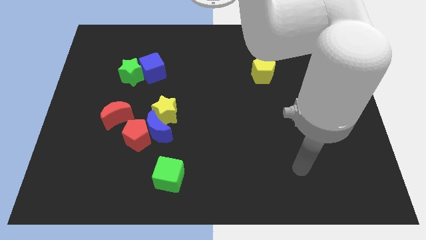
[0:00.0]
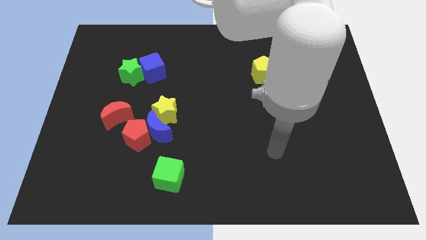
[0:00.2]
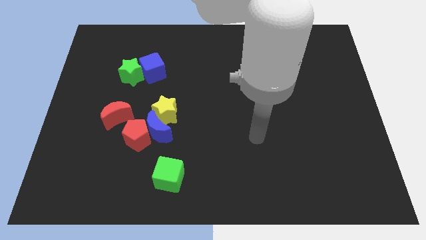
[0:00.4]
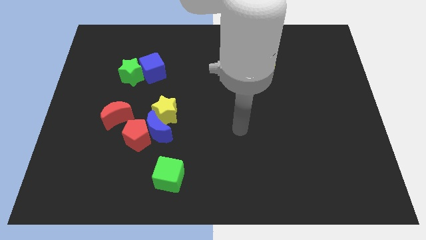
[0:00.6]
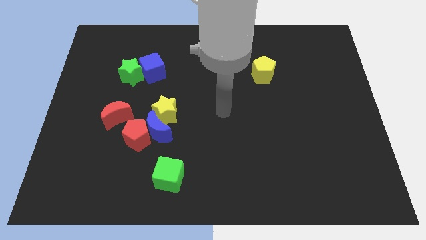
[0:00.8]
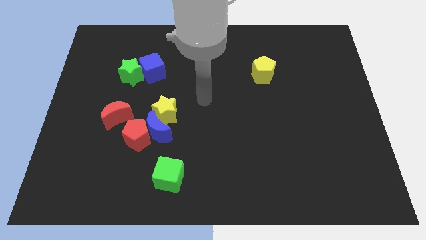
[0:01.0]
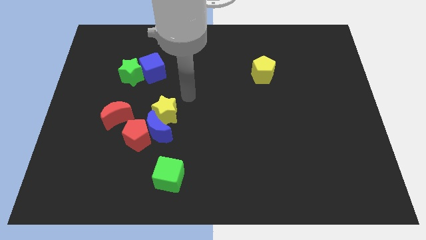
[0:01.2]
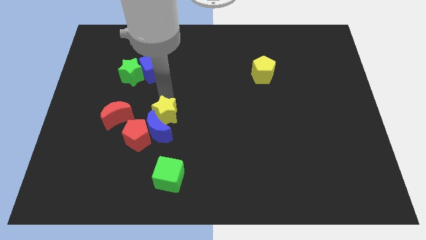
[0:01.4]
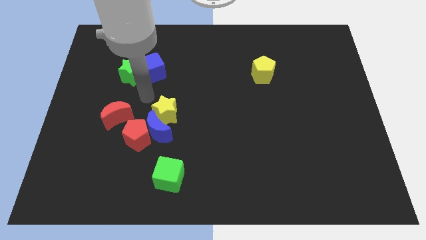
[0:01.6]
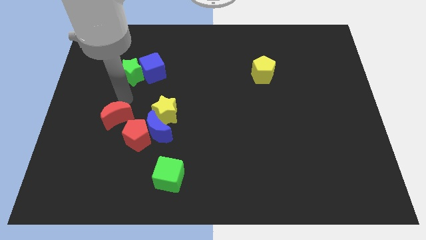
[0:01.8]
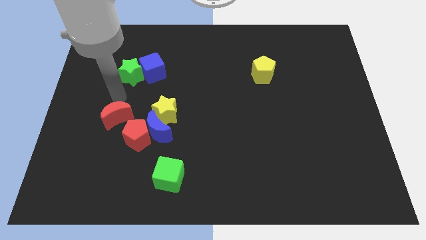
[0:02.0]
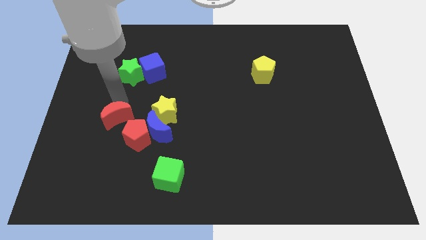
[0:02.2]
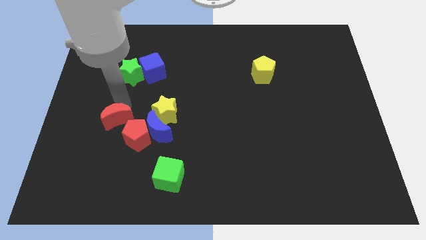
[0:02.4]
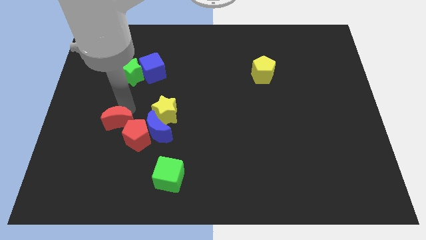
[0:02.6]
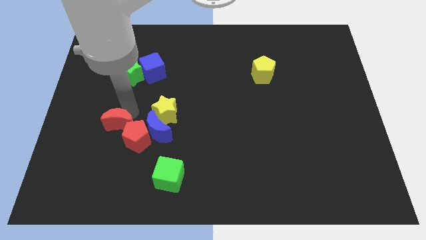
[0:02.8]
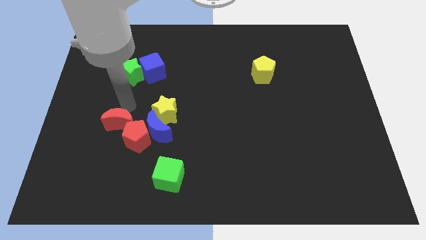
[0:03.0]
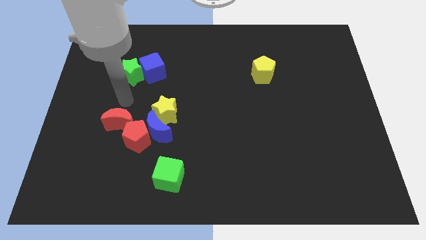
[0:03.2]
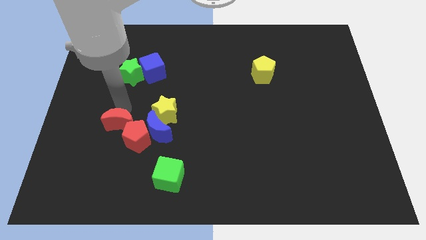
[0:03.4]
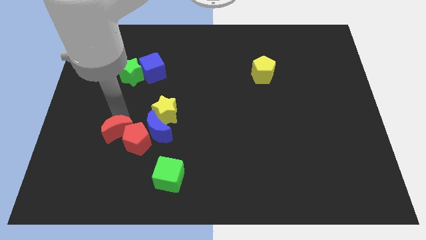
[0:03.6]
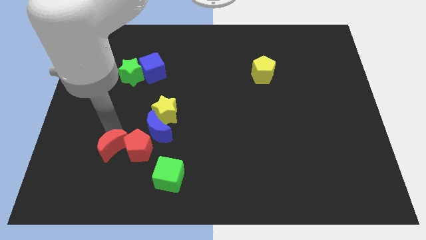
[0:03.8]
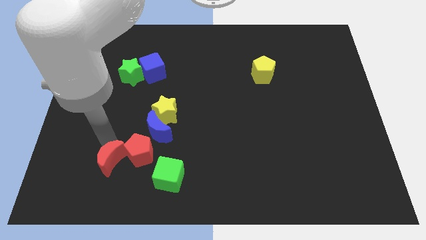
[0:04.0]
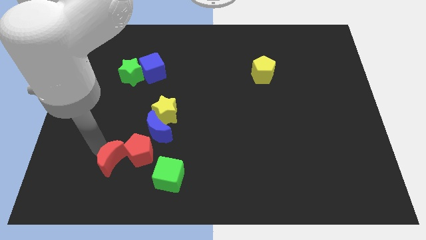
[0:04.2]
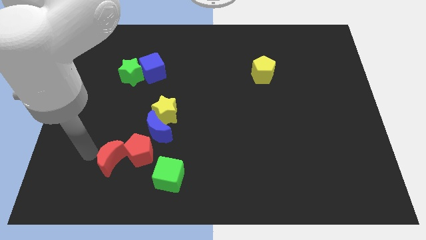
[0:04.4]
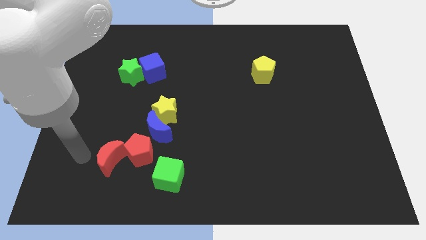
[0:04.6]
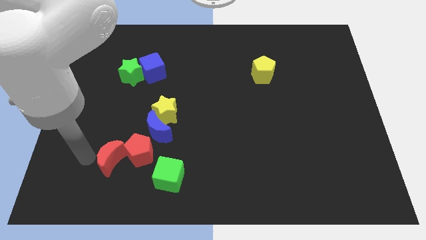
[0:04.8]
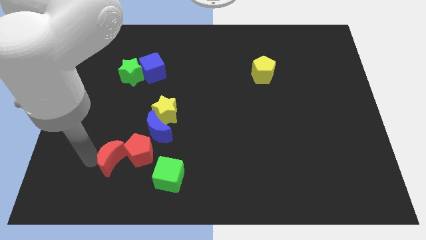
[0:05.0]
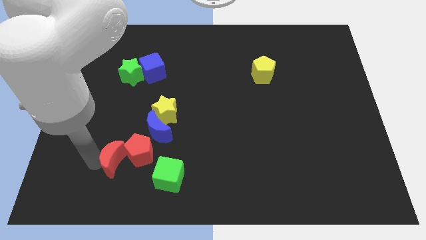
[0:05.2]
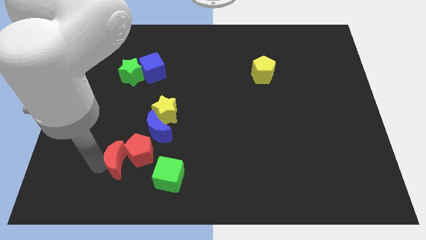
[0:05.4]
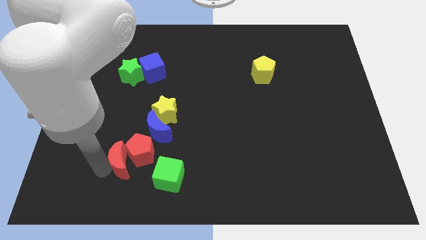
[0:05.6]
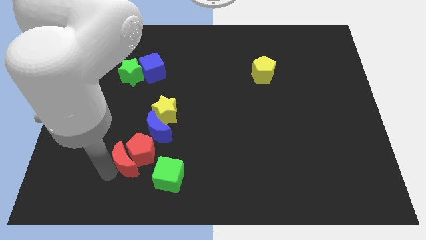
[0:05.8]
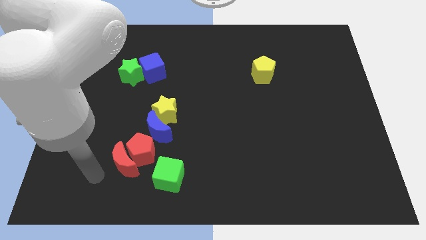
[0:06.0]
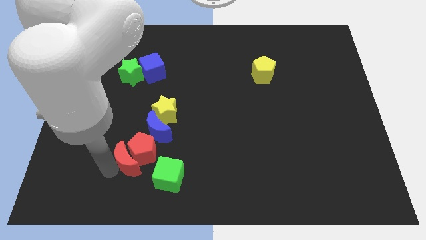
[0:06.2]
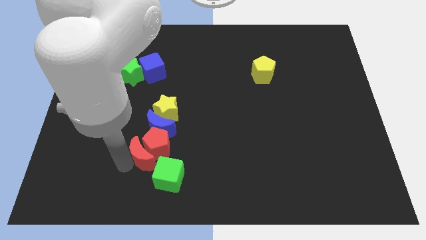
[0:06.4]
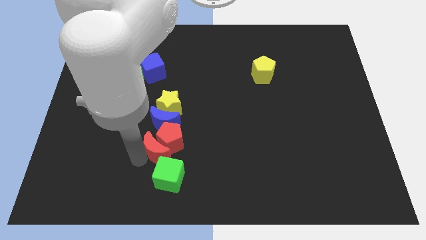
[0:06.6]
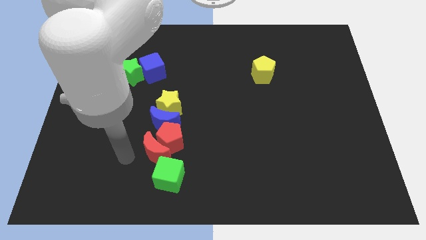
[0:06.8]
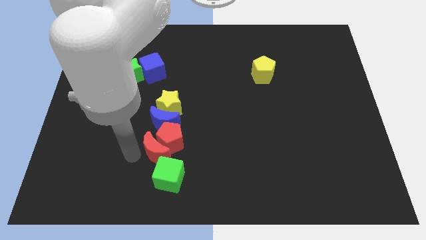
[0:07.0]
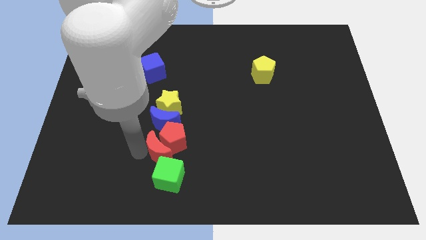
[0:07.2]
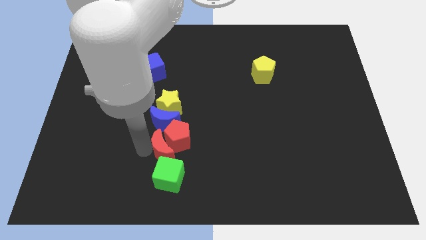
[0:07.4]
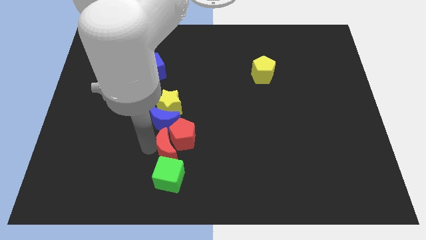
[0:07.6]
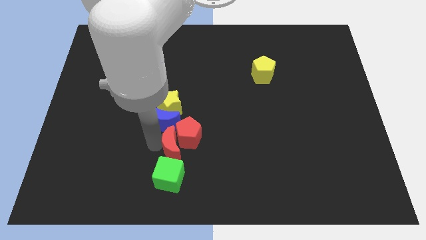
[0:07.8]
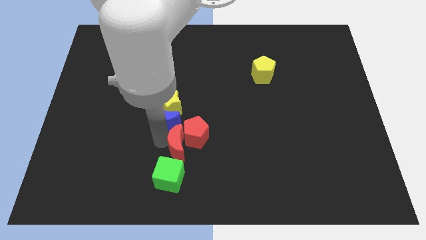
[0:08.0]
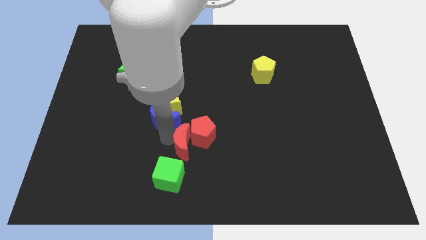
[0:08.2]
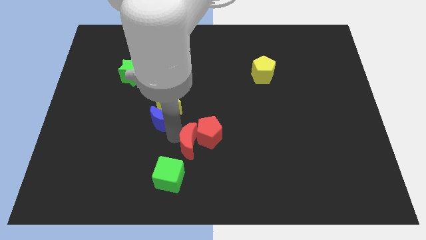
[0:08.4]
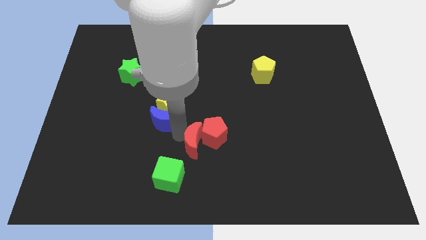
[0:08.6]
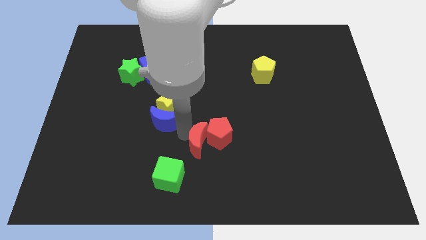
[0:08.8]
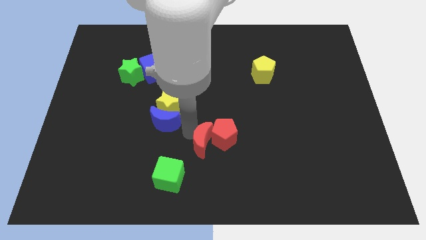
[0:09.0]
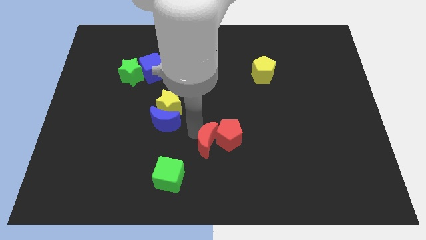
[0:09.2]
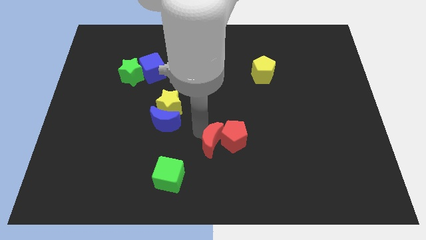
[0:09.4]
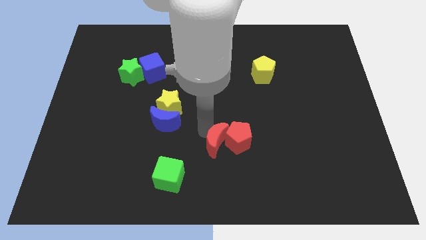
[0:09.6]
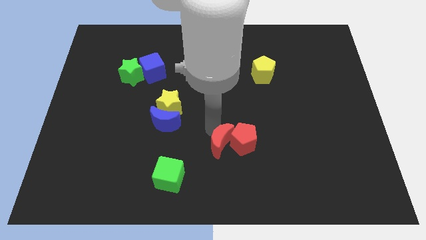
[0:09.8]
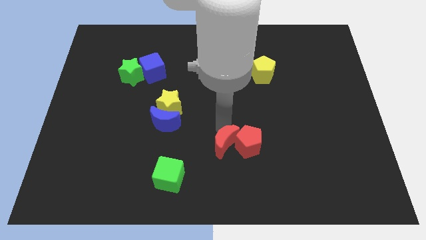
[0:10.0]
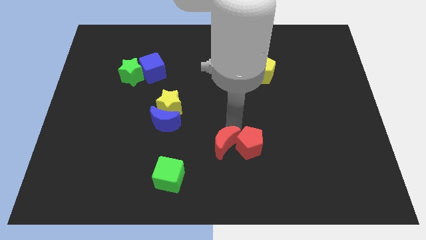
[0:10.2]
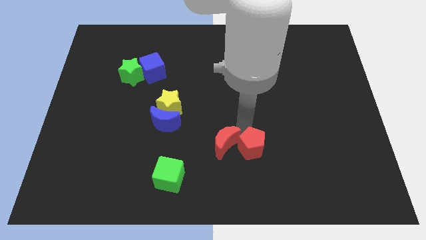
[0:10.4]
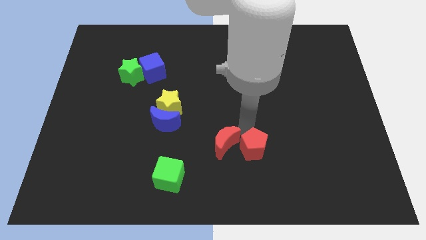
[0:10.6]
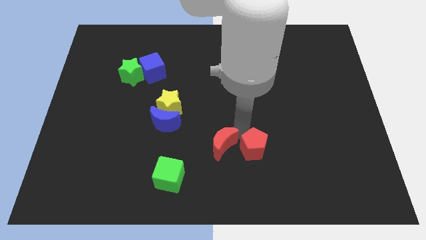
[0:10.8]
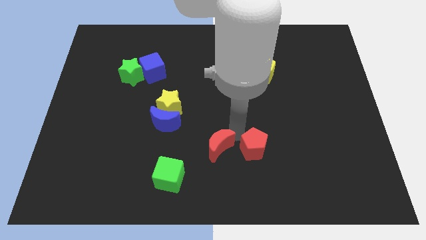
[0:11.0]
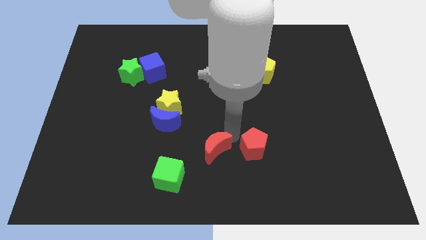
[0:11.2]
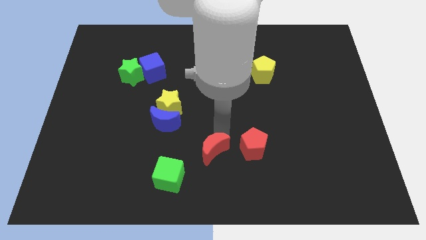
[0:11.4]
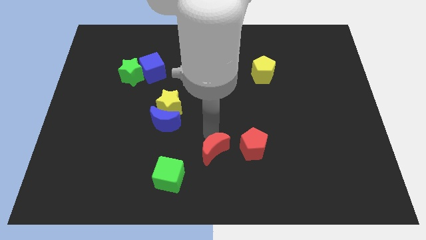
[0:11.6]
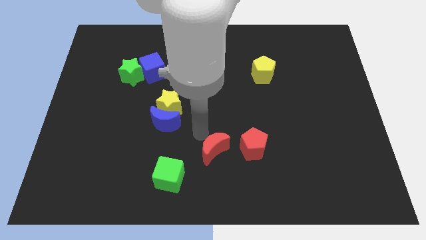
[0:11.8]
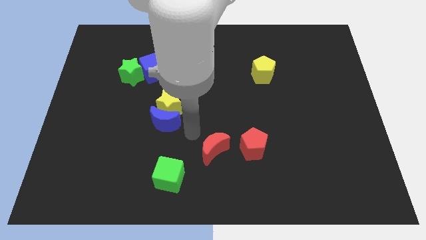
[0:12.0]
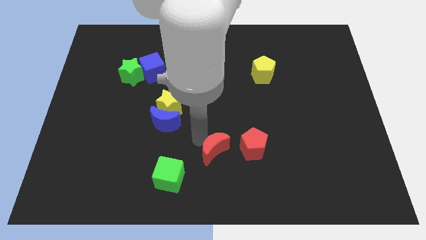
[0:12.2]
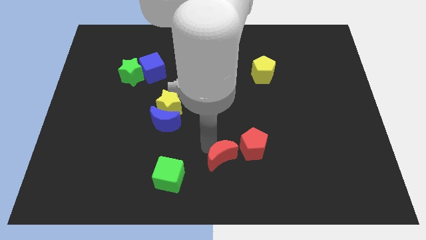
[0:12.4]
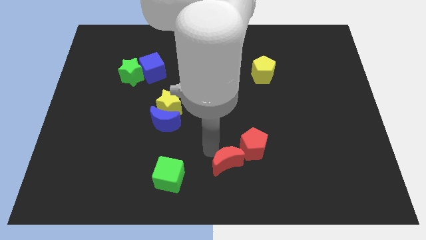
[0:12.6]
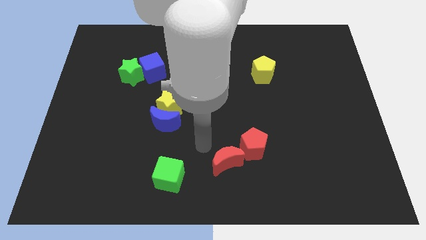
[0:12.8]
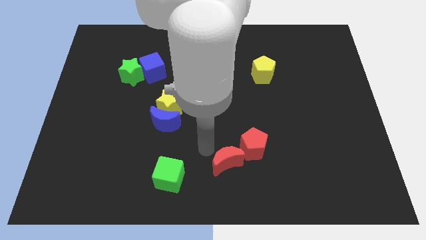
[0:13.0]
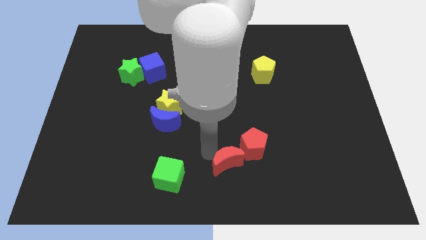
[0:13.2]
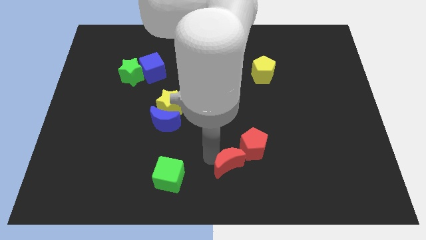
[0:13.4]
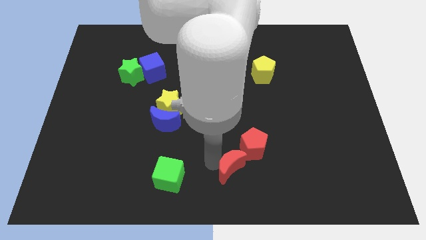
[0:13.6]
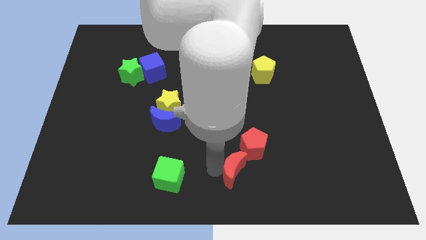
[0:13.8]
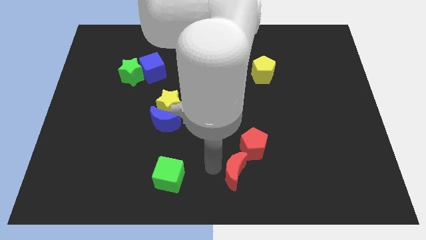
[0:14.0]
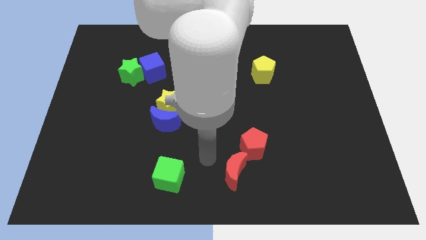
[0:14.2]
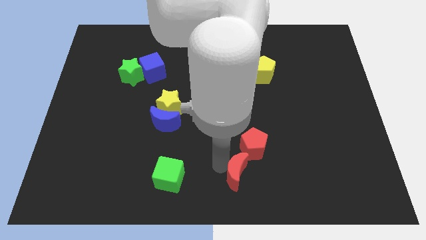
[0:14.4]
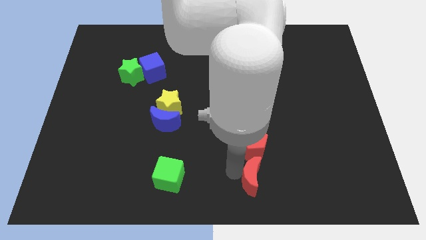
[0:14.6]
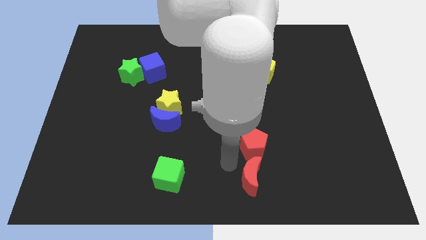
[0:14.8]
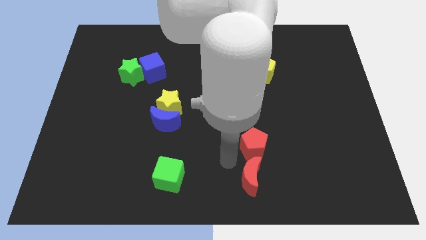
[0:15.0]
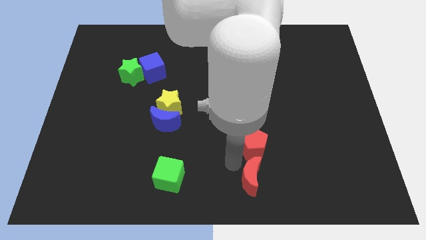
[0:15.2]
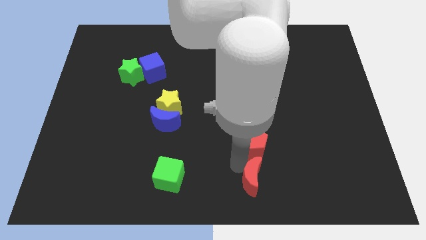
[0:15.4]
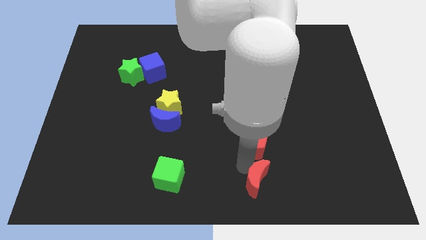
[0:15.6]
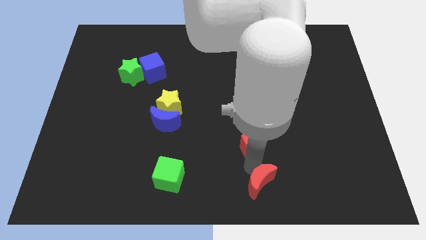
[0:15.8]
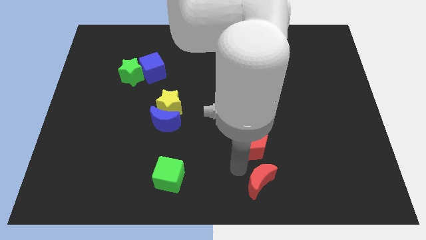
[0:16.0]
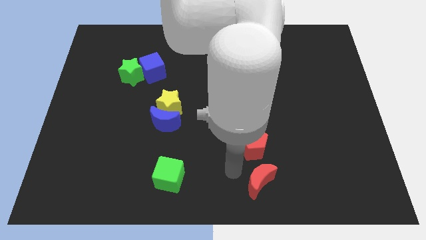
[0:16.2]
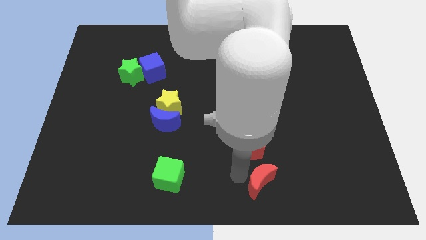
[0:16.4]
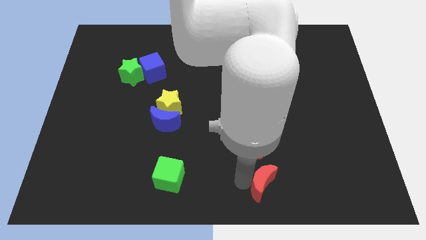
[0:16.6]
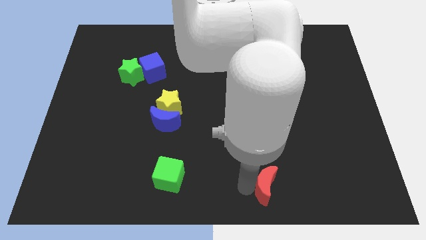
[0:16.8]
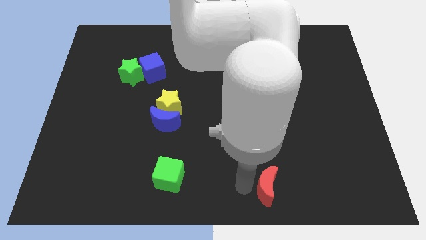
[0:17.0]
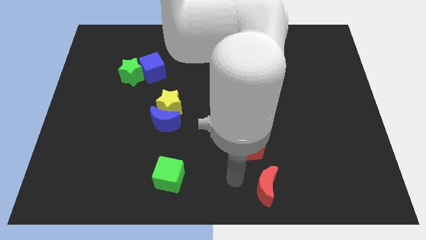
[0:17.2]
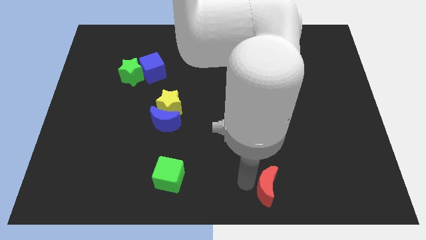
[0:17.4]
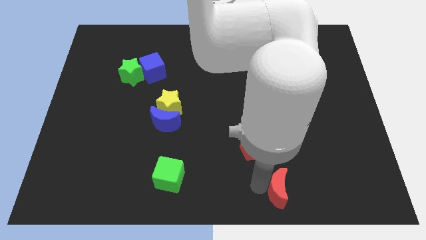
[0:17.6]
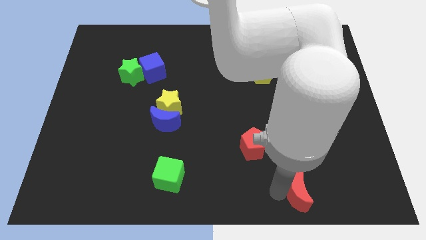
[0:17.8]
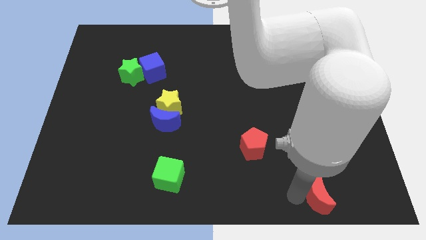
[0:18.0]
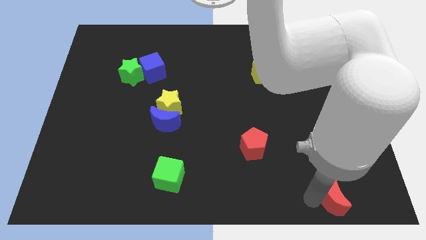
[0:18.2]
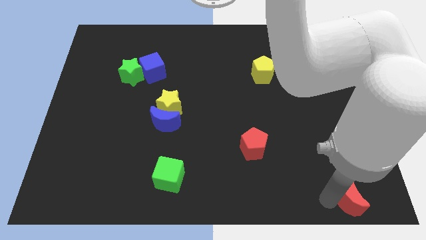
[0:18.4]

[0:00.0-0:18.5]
push the red moon to the bottom right
